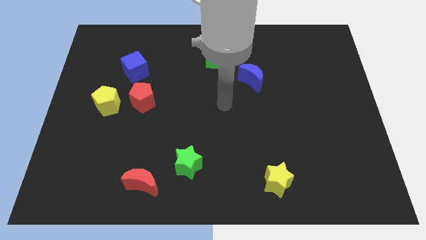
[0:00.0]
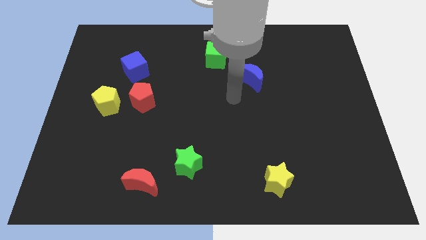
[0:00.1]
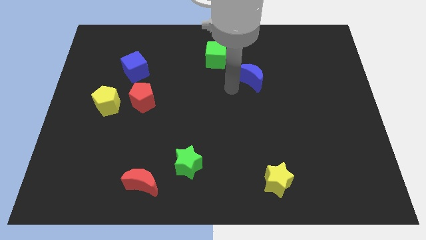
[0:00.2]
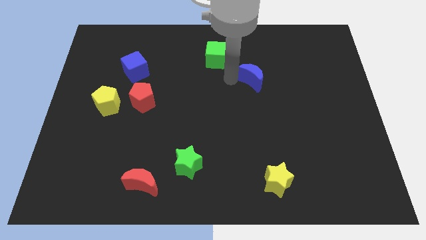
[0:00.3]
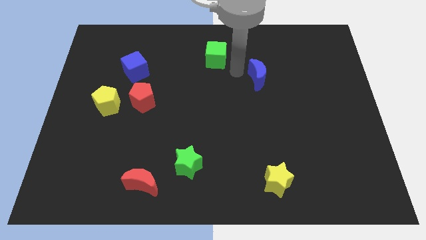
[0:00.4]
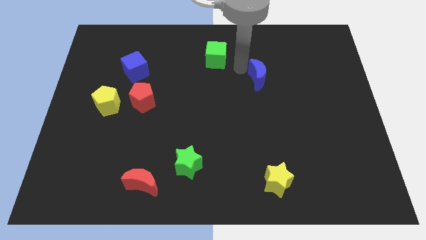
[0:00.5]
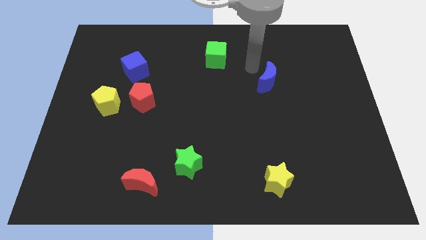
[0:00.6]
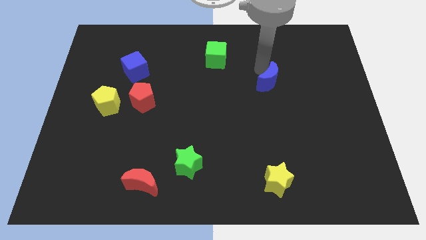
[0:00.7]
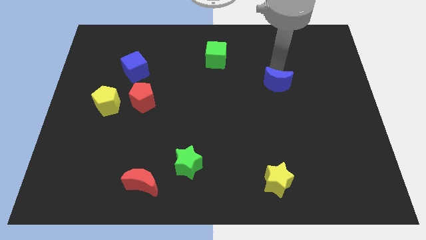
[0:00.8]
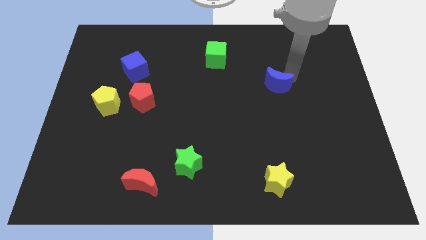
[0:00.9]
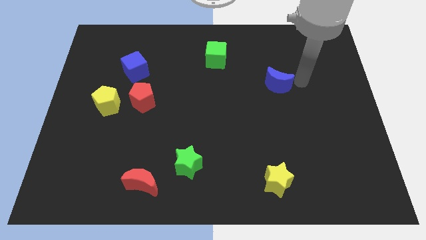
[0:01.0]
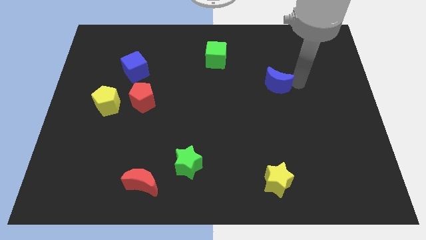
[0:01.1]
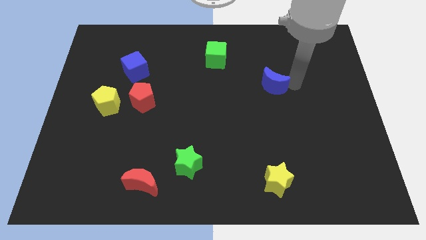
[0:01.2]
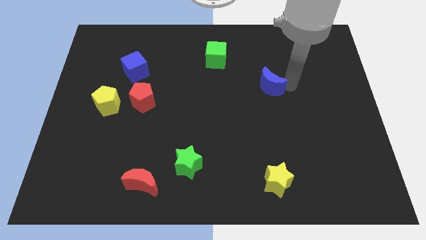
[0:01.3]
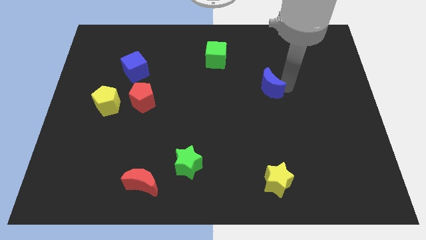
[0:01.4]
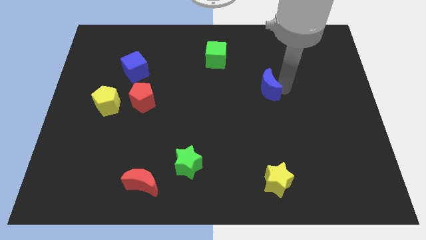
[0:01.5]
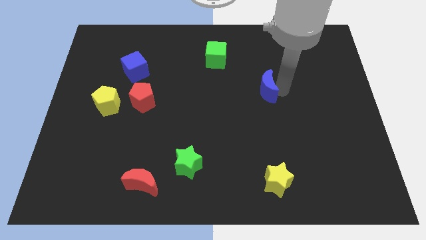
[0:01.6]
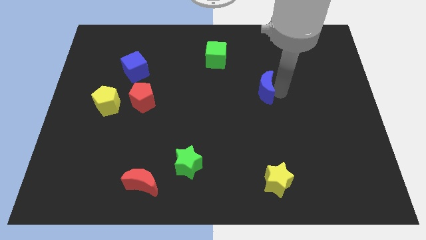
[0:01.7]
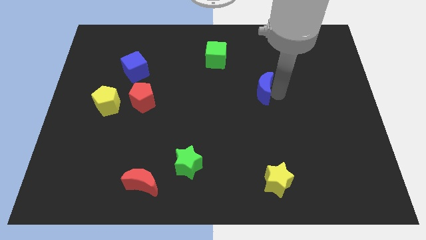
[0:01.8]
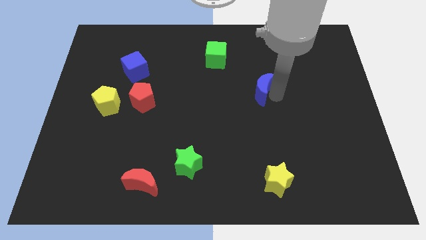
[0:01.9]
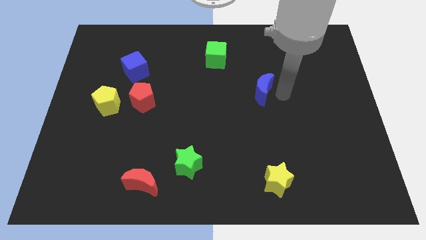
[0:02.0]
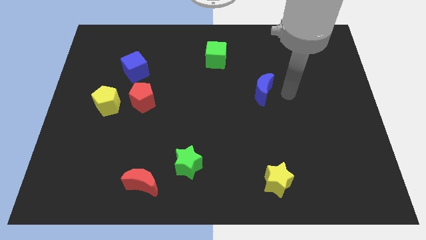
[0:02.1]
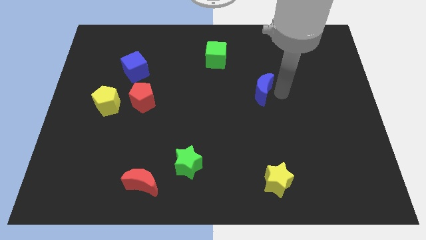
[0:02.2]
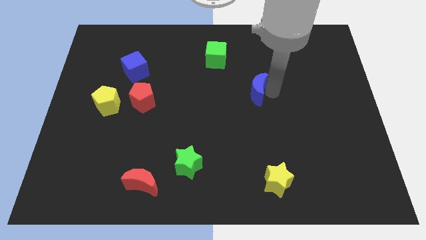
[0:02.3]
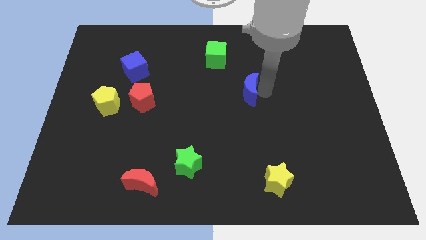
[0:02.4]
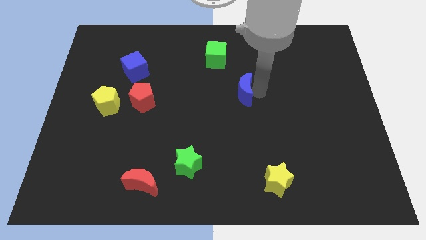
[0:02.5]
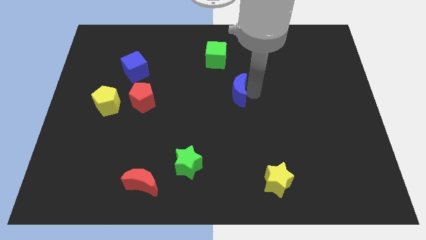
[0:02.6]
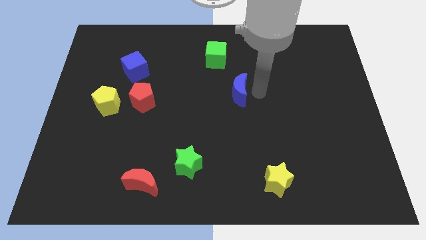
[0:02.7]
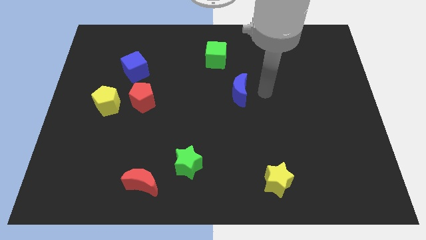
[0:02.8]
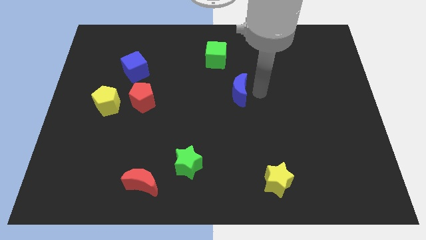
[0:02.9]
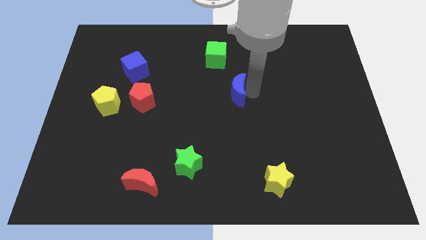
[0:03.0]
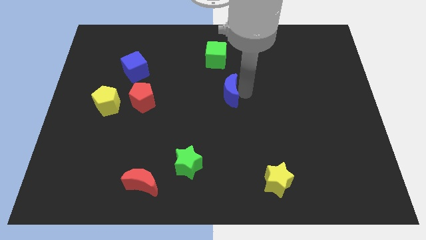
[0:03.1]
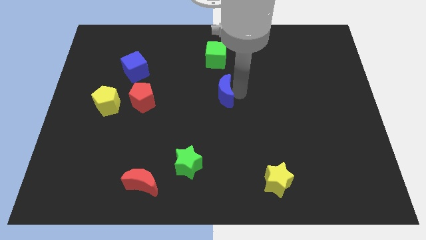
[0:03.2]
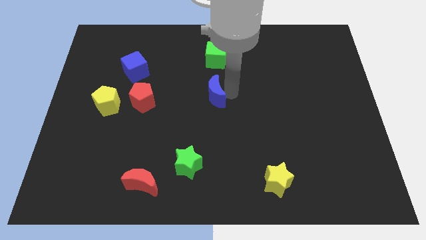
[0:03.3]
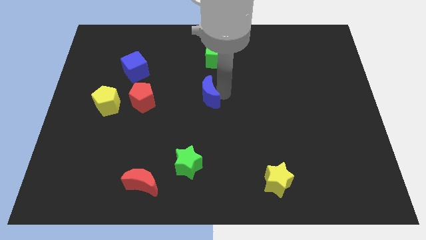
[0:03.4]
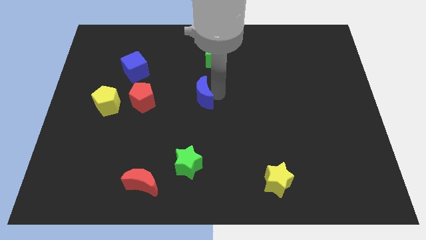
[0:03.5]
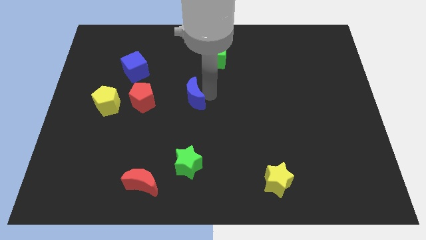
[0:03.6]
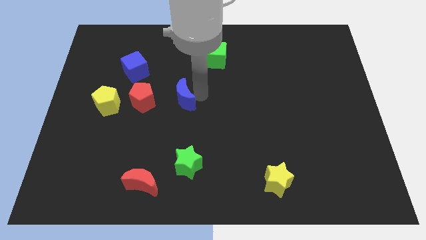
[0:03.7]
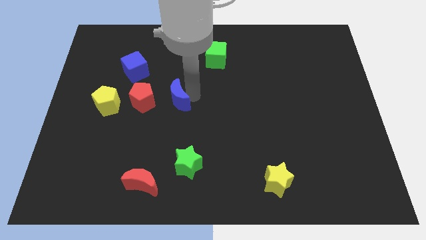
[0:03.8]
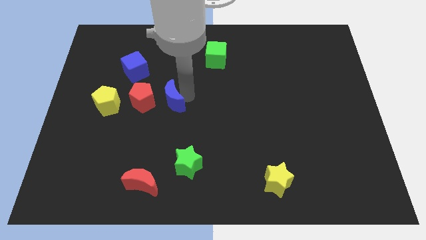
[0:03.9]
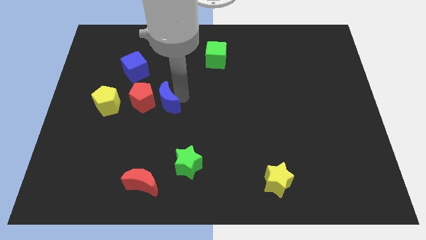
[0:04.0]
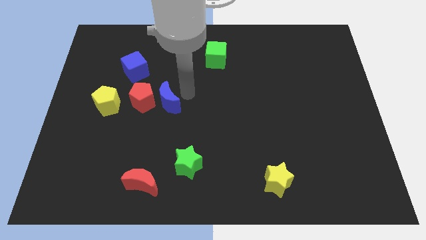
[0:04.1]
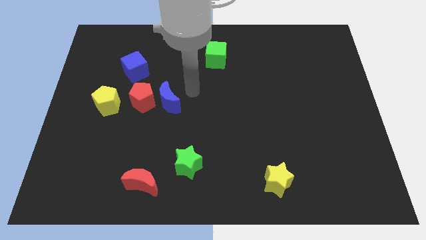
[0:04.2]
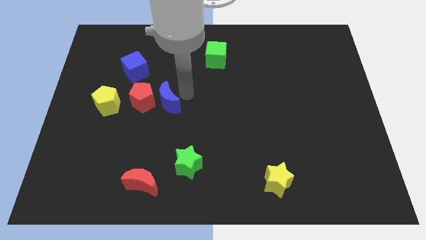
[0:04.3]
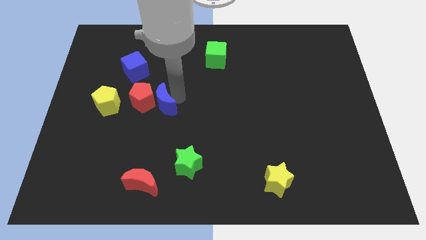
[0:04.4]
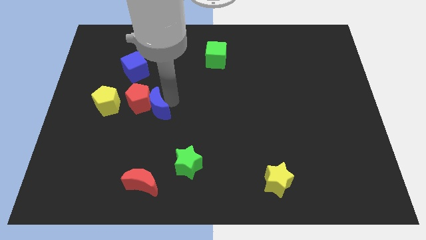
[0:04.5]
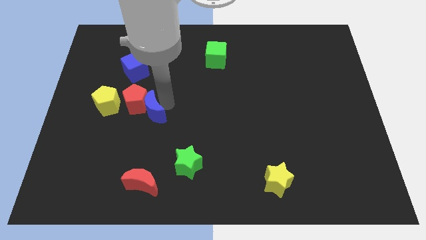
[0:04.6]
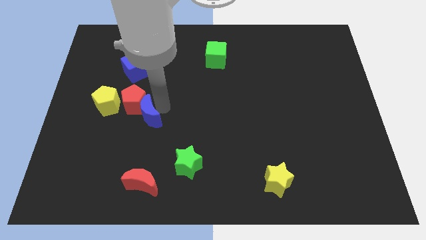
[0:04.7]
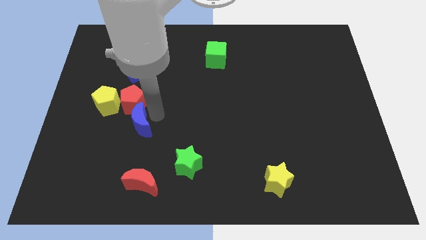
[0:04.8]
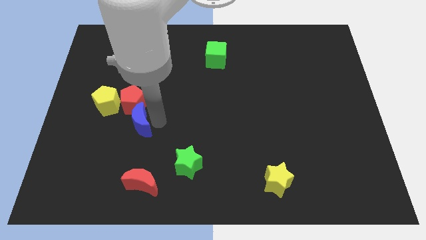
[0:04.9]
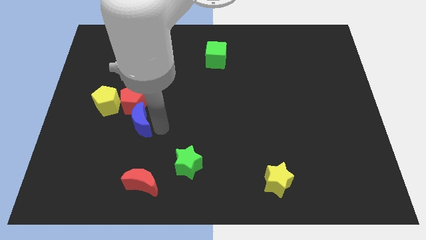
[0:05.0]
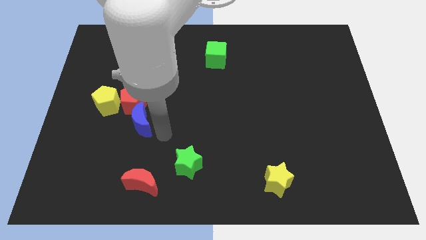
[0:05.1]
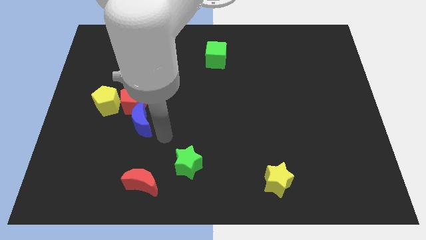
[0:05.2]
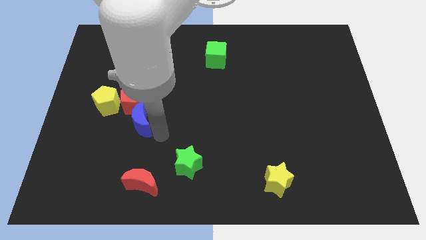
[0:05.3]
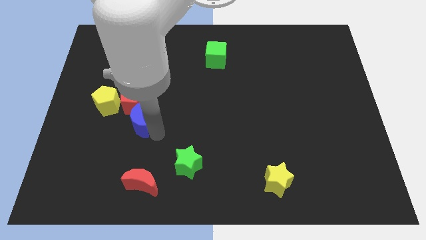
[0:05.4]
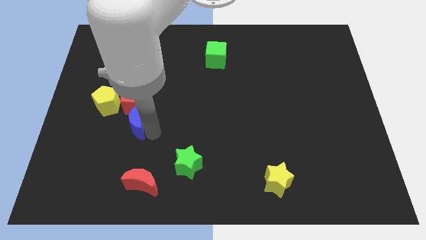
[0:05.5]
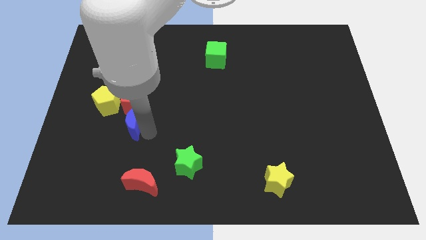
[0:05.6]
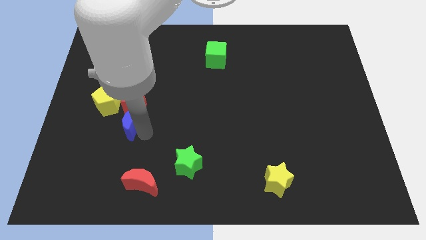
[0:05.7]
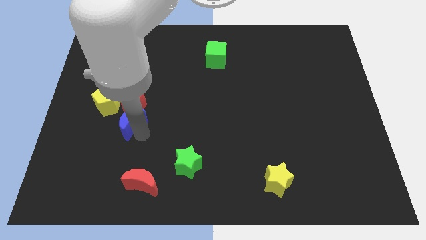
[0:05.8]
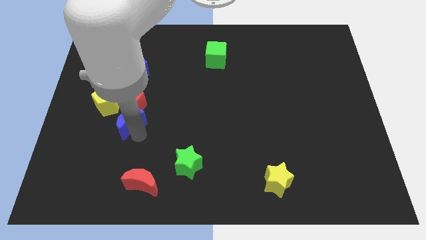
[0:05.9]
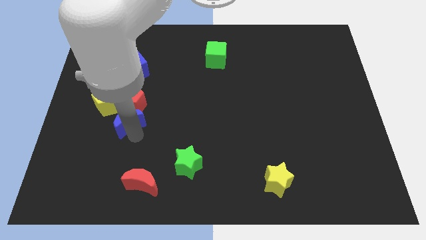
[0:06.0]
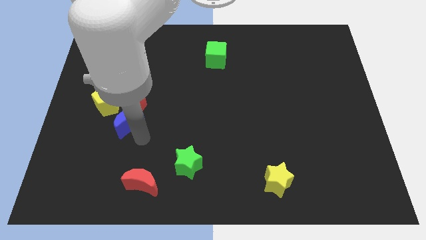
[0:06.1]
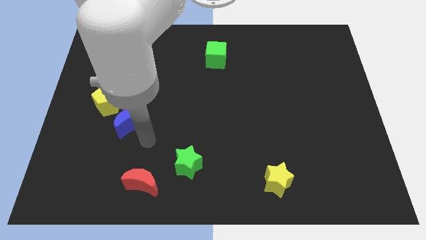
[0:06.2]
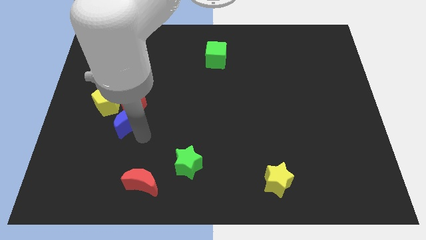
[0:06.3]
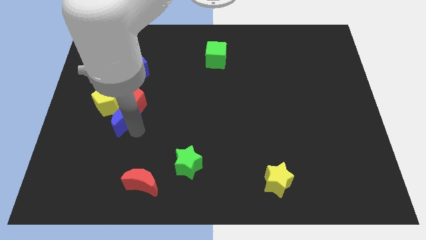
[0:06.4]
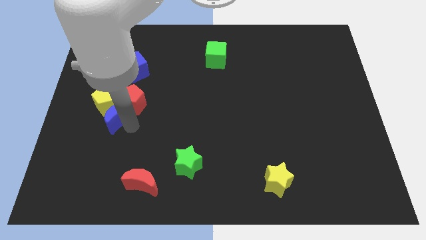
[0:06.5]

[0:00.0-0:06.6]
slide the blue moon close to the yellow pentagon

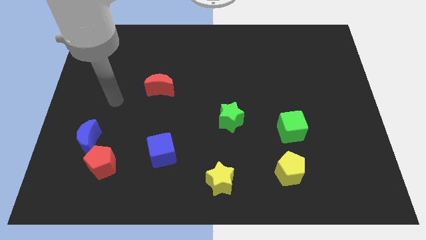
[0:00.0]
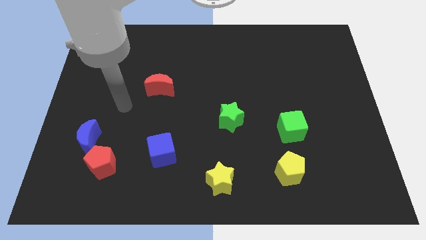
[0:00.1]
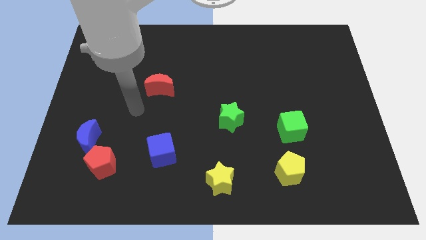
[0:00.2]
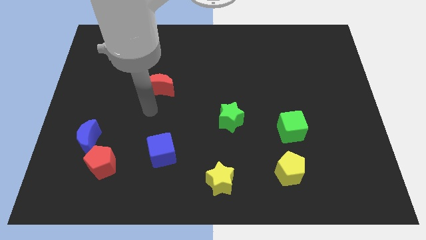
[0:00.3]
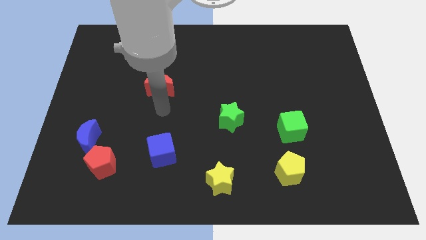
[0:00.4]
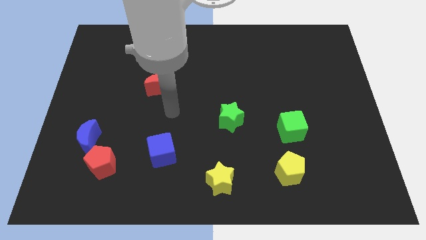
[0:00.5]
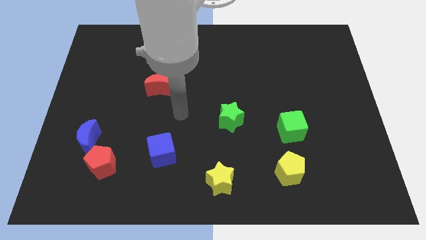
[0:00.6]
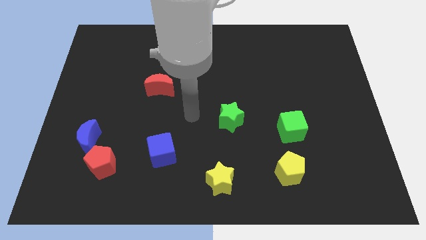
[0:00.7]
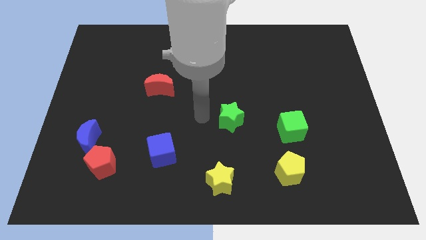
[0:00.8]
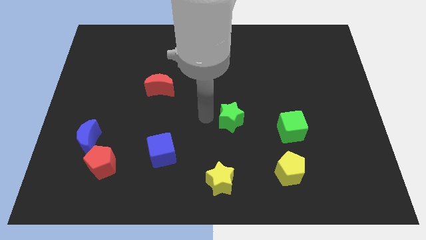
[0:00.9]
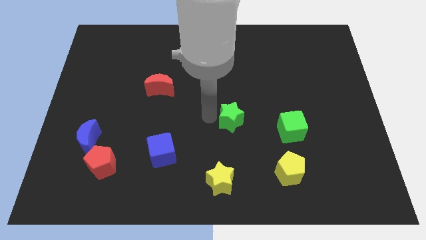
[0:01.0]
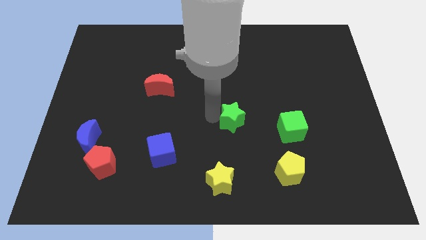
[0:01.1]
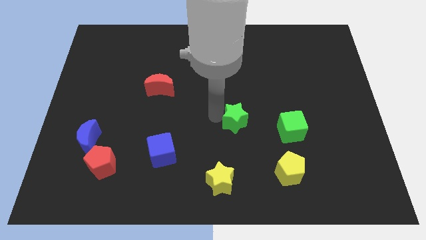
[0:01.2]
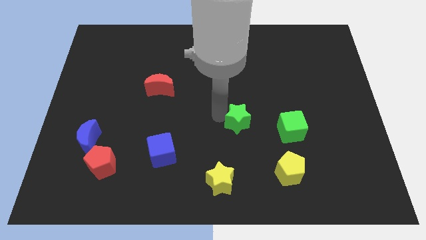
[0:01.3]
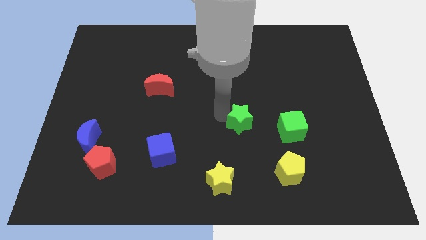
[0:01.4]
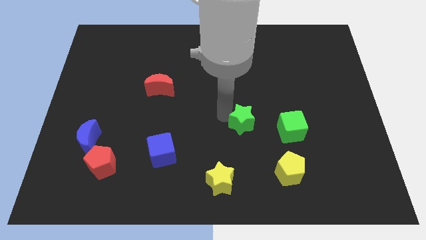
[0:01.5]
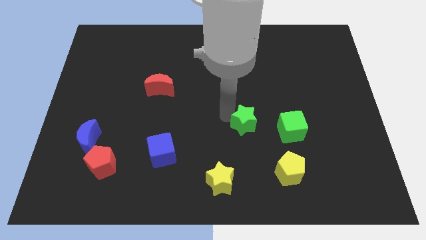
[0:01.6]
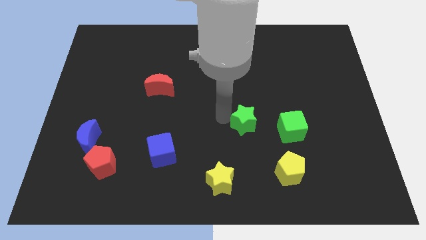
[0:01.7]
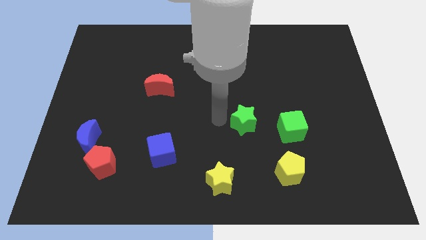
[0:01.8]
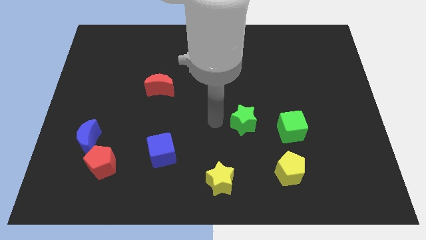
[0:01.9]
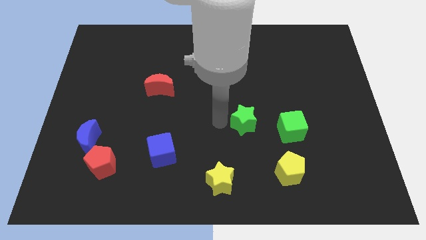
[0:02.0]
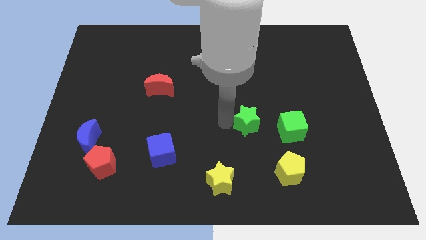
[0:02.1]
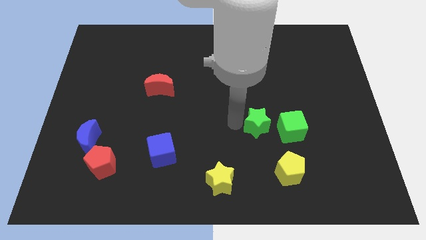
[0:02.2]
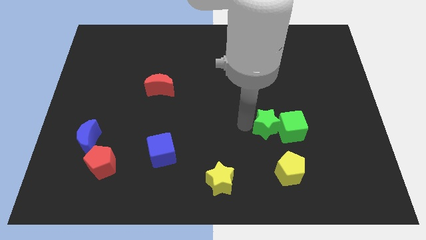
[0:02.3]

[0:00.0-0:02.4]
move the green star next to the green cube
